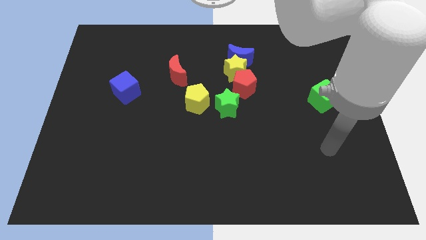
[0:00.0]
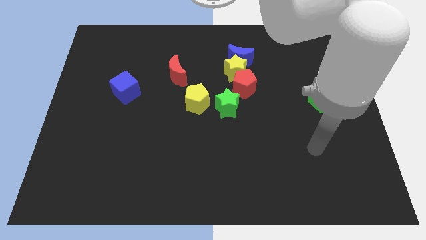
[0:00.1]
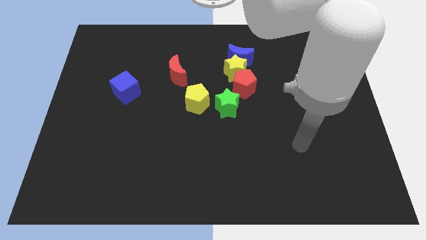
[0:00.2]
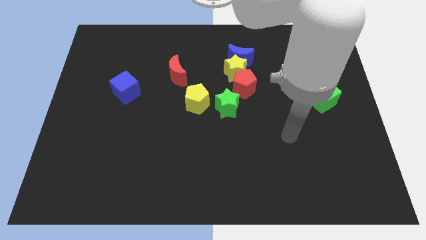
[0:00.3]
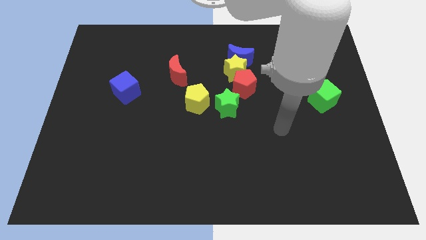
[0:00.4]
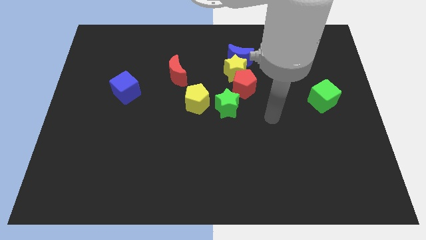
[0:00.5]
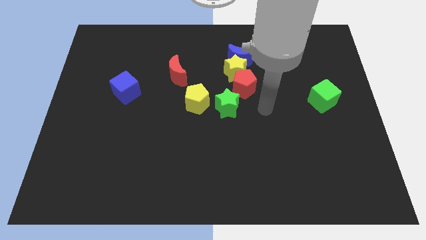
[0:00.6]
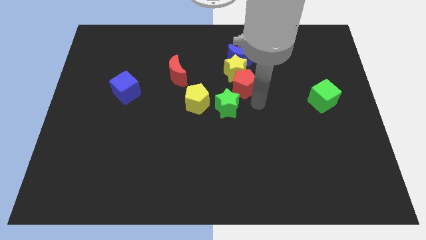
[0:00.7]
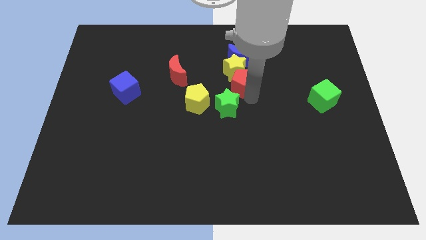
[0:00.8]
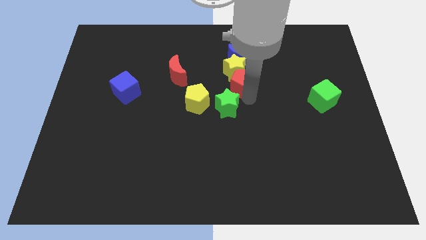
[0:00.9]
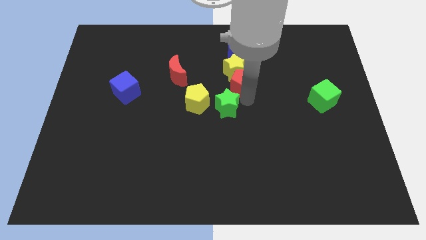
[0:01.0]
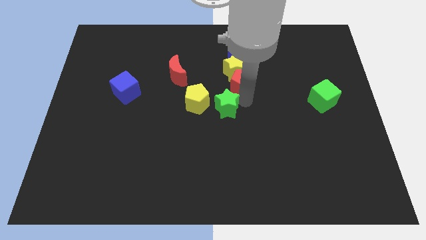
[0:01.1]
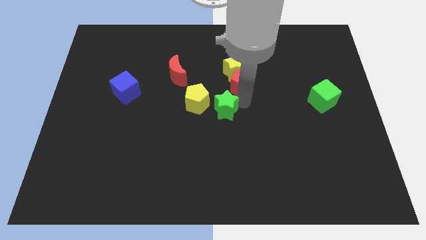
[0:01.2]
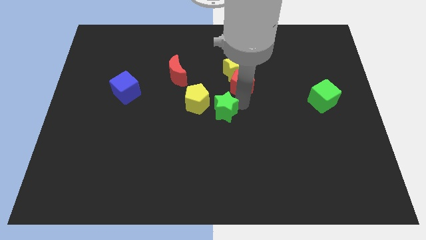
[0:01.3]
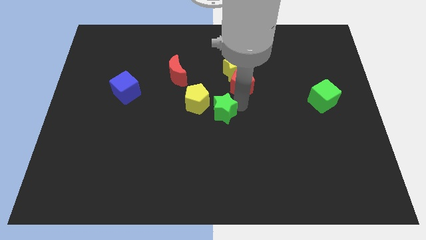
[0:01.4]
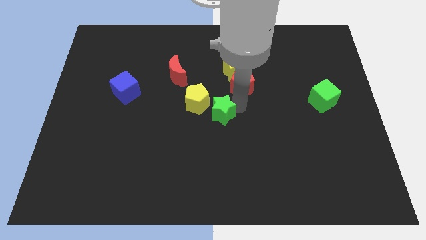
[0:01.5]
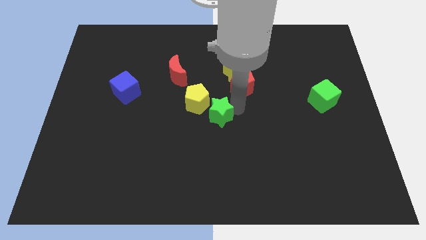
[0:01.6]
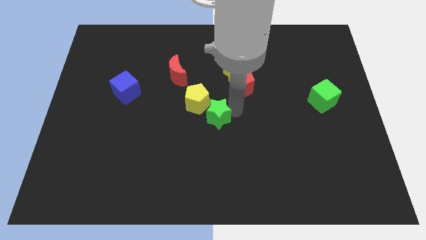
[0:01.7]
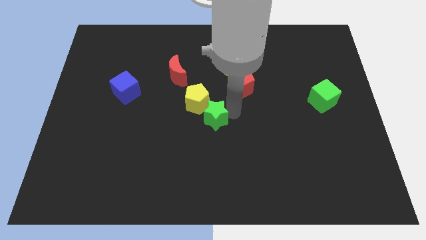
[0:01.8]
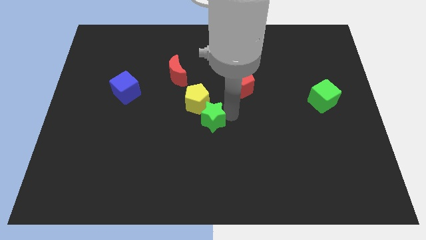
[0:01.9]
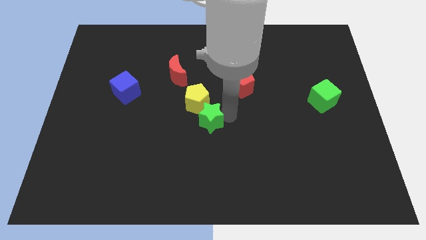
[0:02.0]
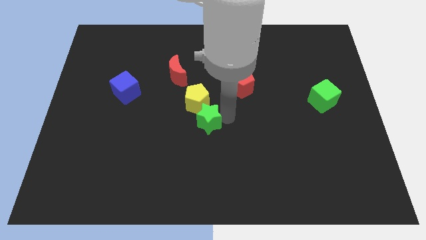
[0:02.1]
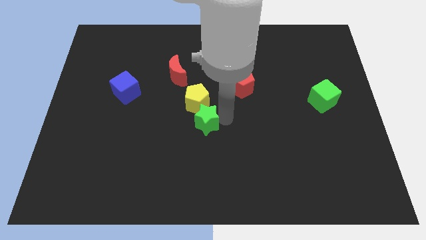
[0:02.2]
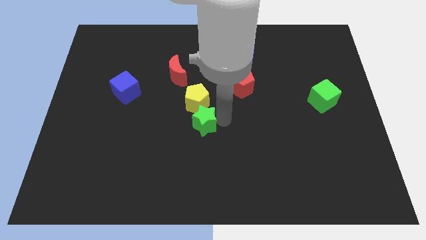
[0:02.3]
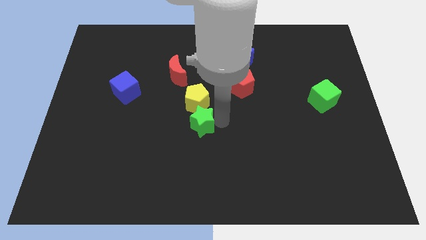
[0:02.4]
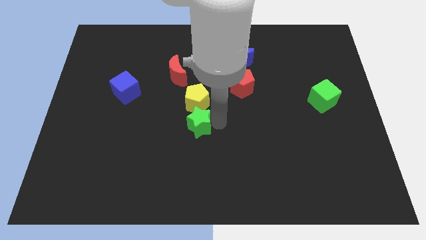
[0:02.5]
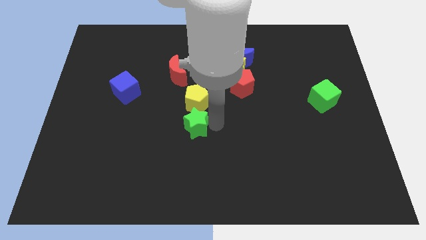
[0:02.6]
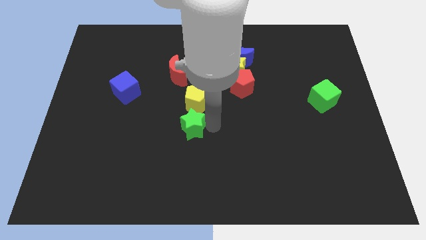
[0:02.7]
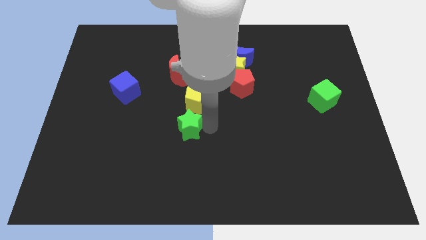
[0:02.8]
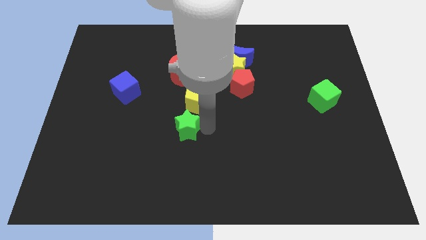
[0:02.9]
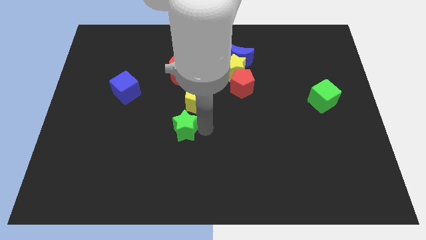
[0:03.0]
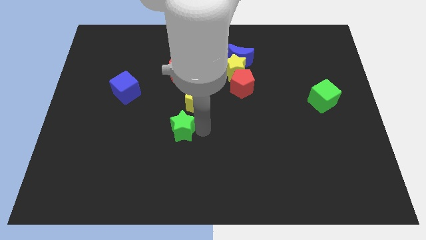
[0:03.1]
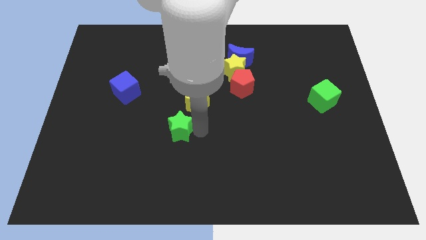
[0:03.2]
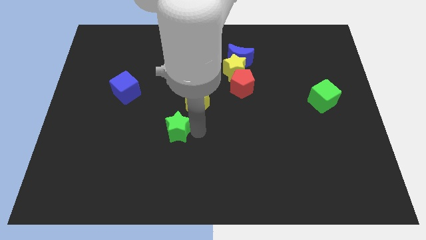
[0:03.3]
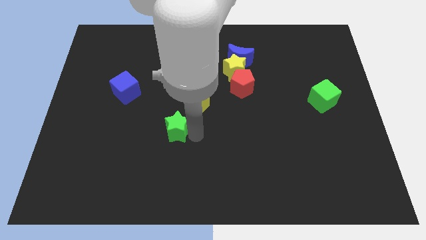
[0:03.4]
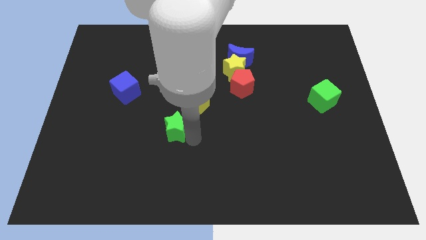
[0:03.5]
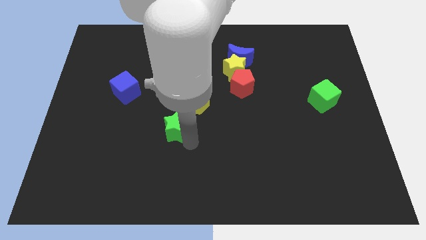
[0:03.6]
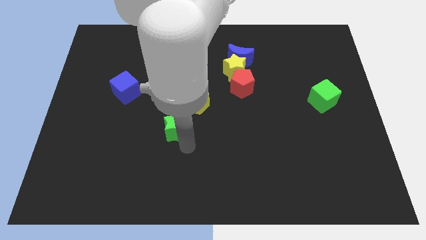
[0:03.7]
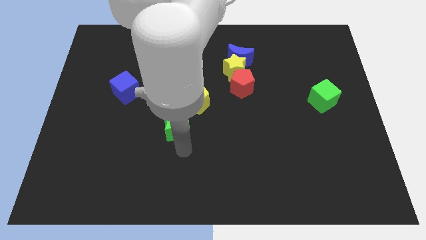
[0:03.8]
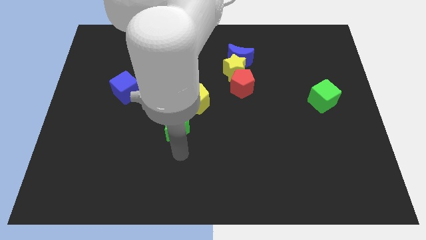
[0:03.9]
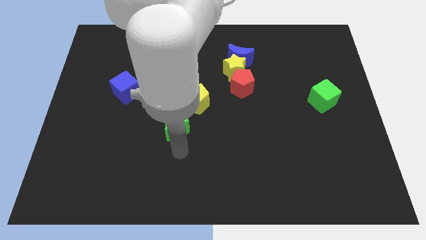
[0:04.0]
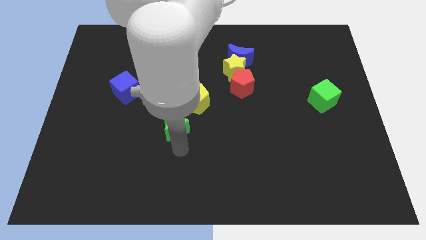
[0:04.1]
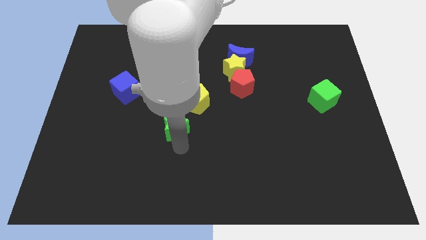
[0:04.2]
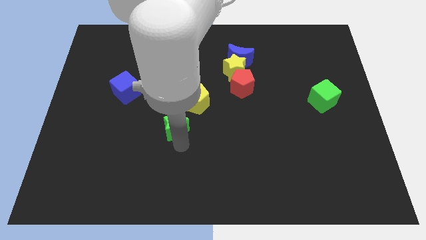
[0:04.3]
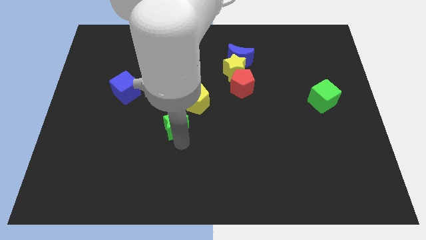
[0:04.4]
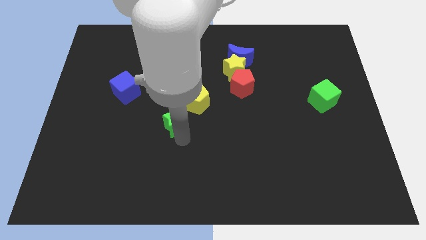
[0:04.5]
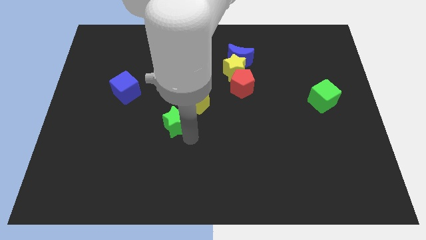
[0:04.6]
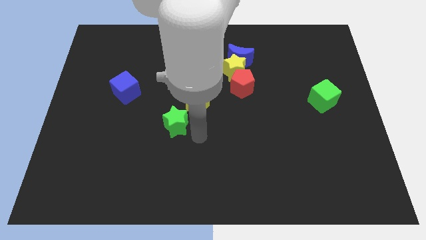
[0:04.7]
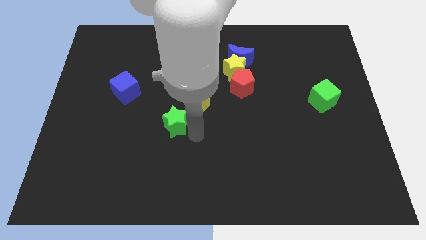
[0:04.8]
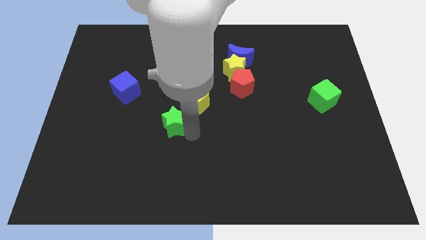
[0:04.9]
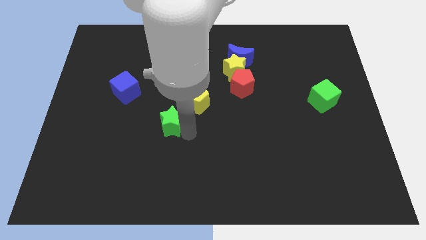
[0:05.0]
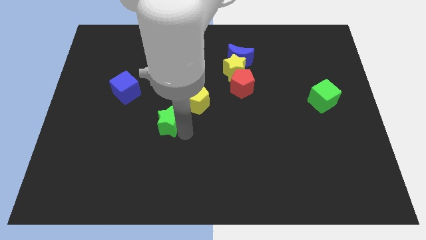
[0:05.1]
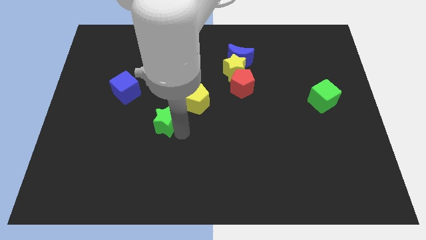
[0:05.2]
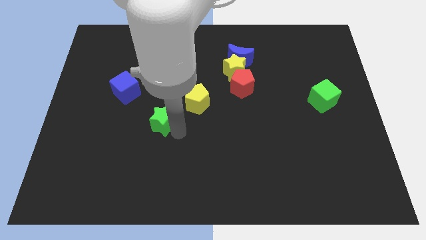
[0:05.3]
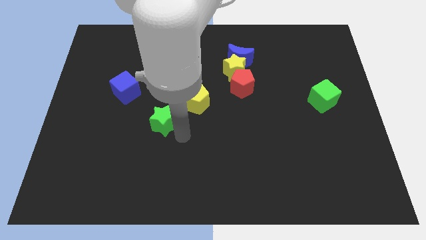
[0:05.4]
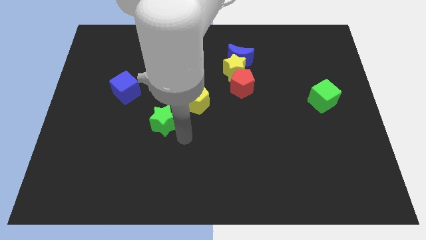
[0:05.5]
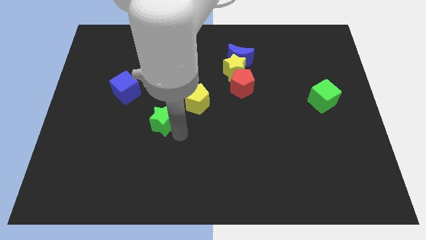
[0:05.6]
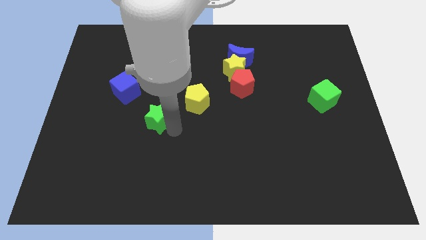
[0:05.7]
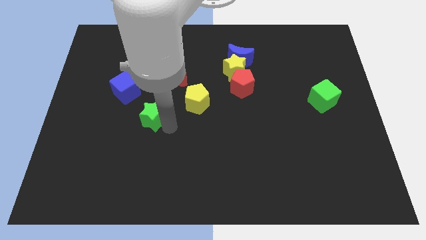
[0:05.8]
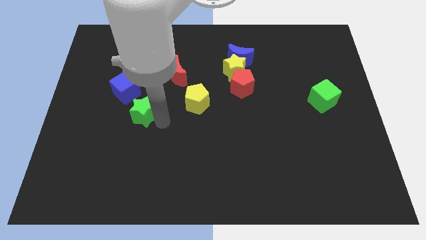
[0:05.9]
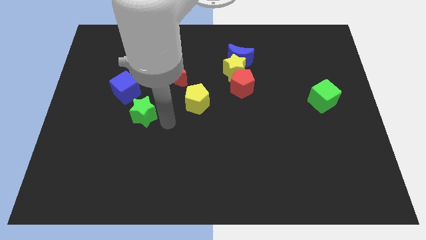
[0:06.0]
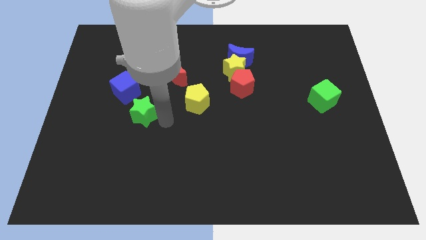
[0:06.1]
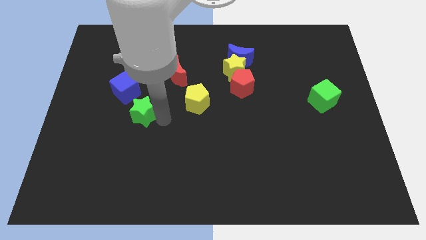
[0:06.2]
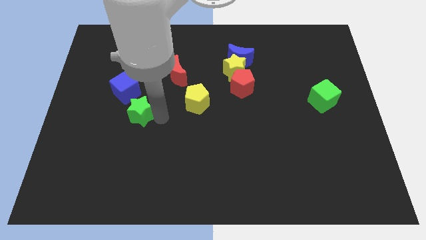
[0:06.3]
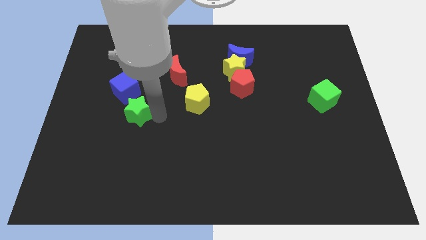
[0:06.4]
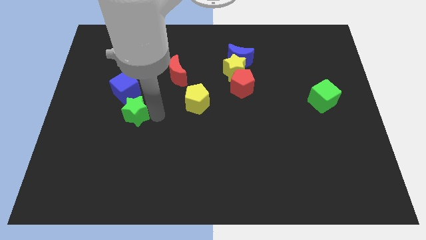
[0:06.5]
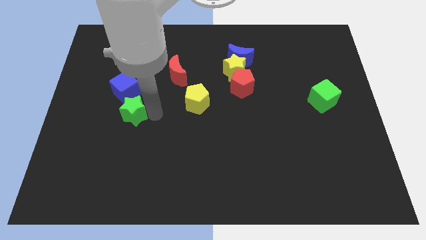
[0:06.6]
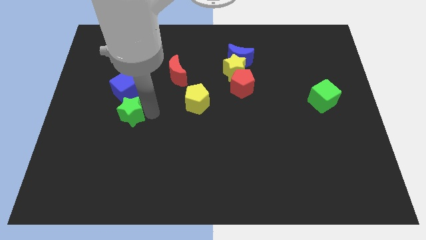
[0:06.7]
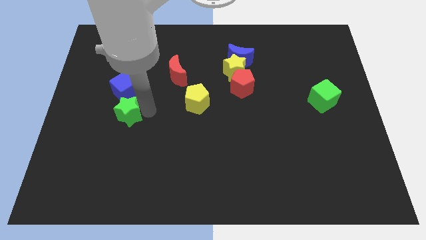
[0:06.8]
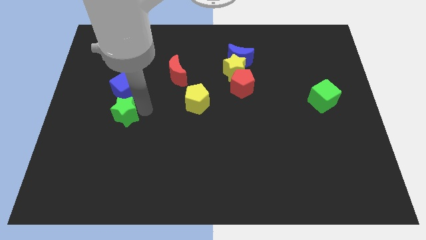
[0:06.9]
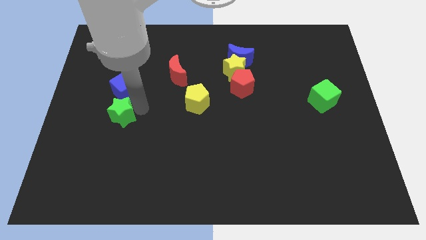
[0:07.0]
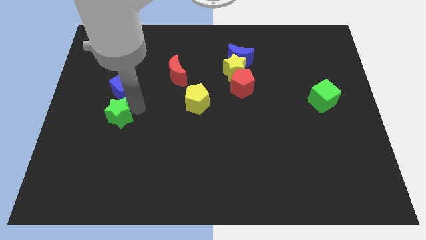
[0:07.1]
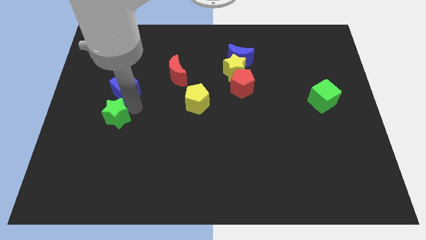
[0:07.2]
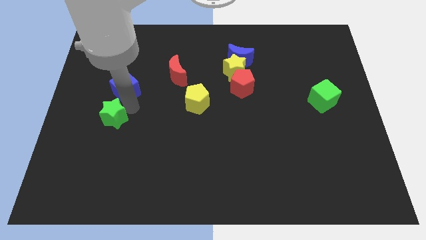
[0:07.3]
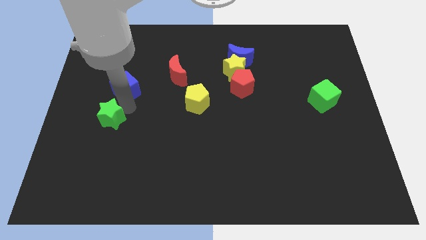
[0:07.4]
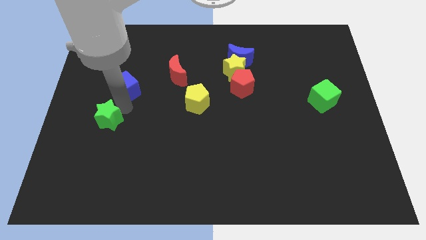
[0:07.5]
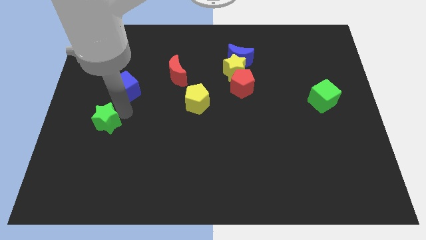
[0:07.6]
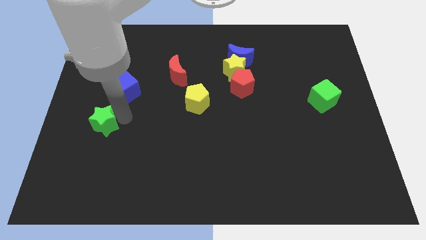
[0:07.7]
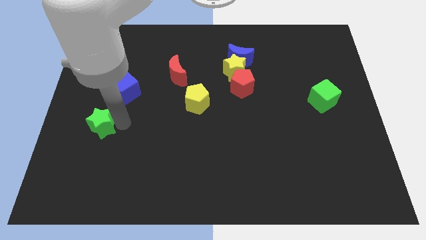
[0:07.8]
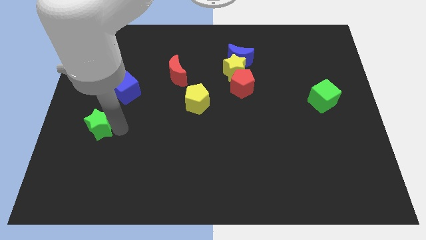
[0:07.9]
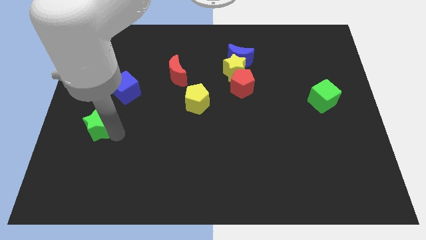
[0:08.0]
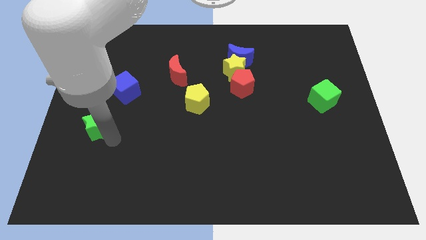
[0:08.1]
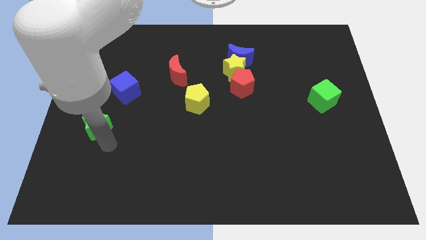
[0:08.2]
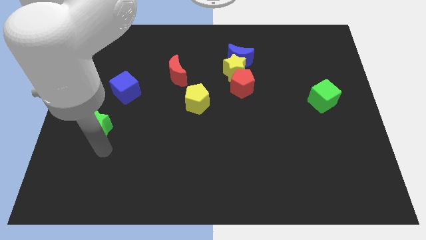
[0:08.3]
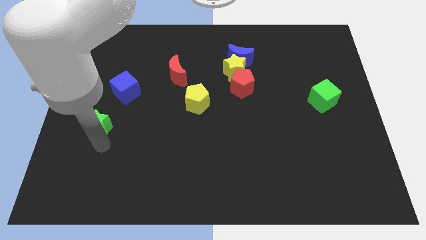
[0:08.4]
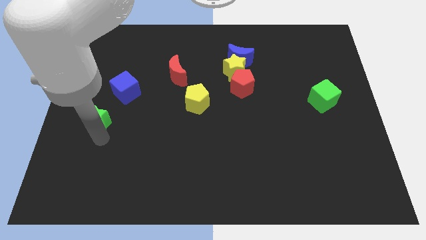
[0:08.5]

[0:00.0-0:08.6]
put the green star to the center left
